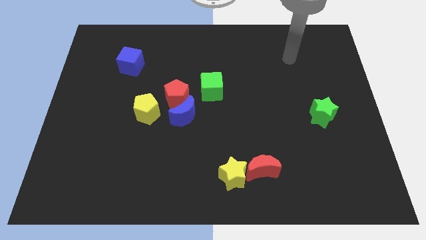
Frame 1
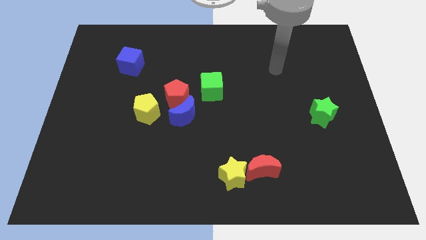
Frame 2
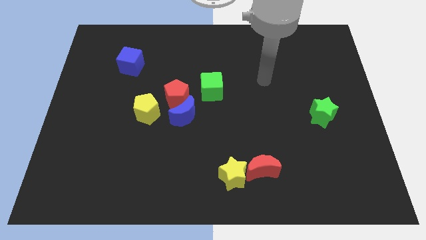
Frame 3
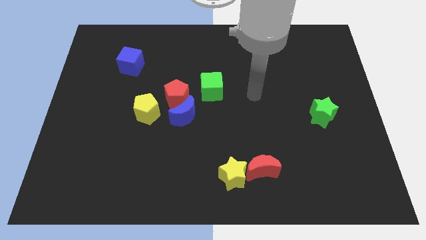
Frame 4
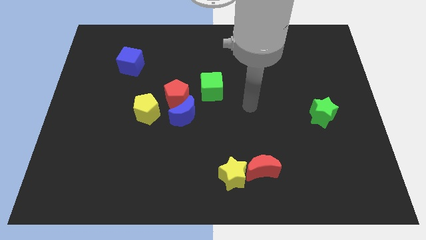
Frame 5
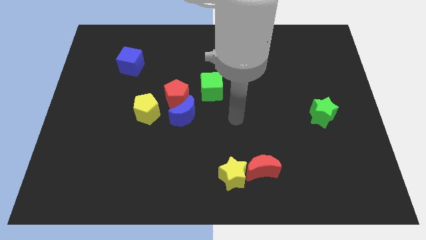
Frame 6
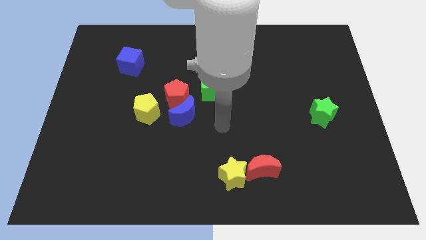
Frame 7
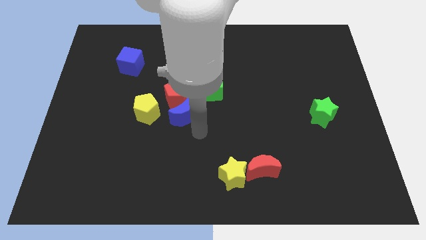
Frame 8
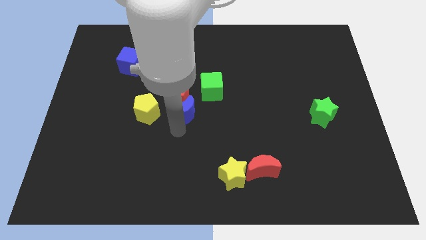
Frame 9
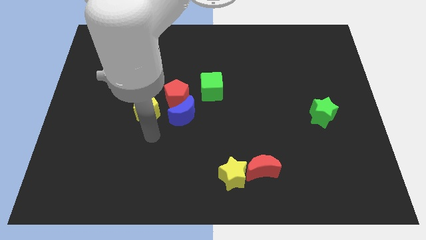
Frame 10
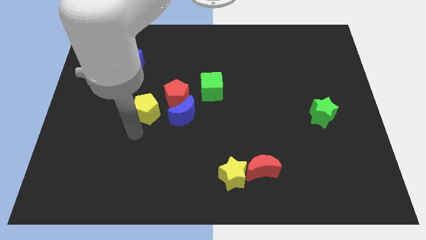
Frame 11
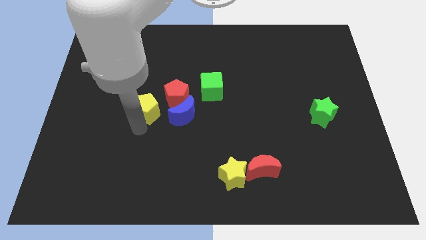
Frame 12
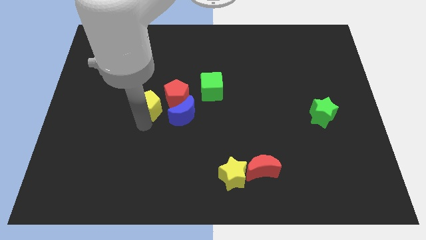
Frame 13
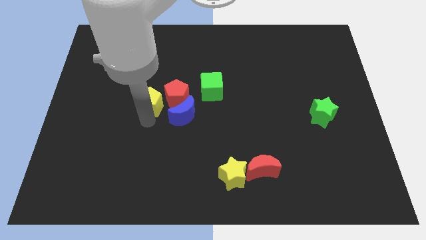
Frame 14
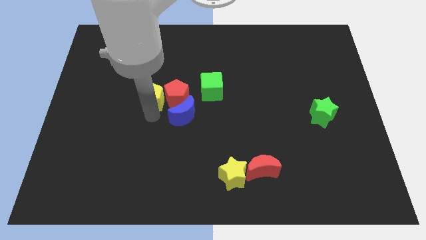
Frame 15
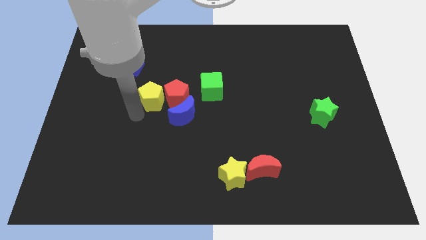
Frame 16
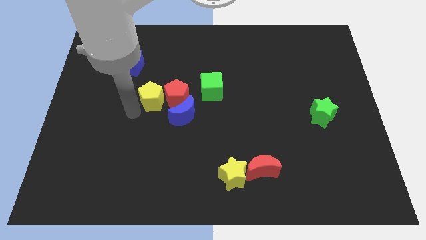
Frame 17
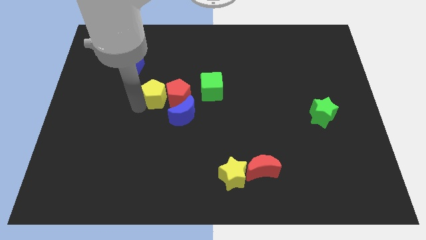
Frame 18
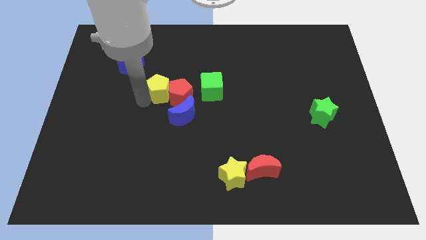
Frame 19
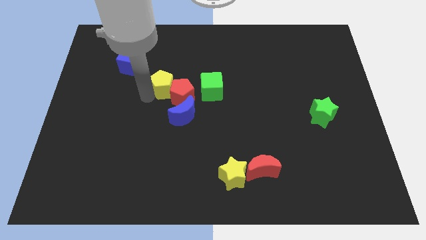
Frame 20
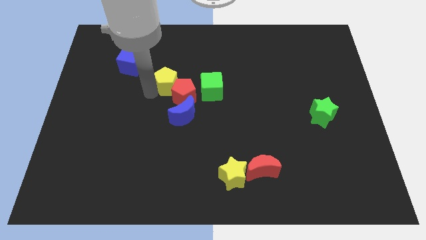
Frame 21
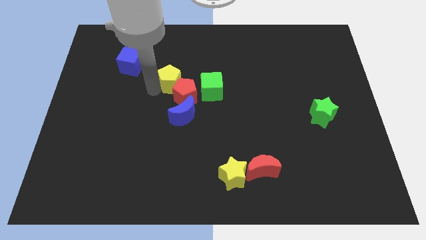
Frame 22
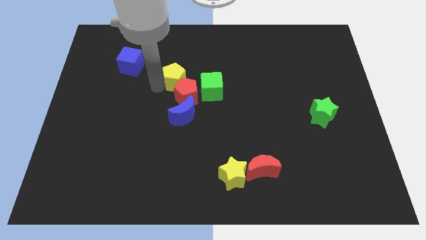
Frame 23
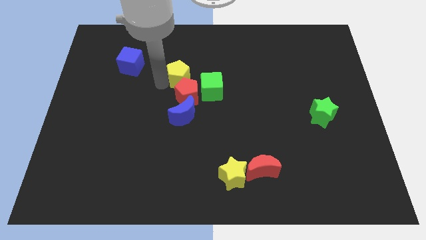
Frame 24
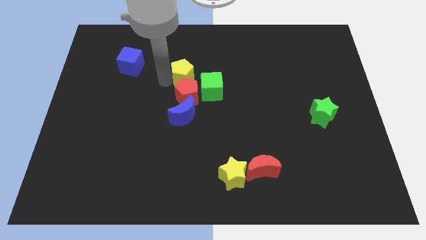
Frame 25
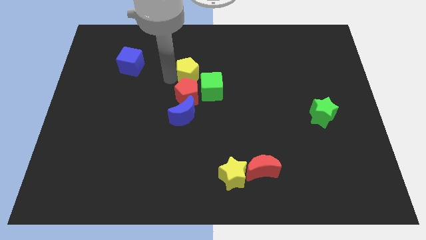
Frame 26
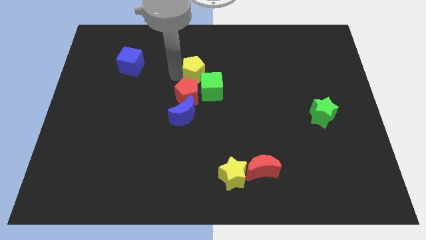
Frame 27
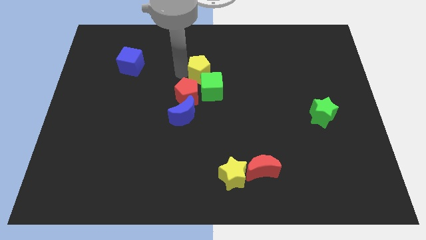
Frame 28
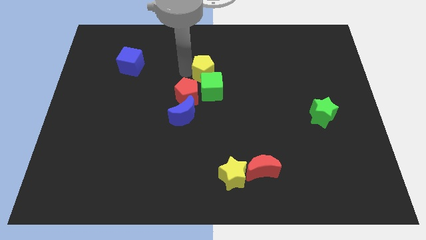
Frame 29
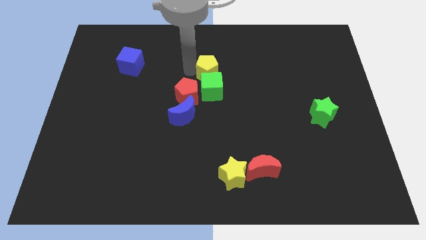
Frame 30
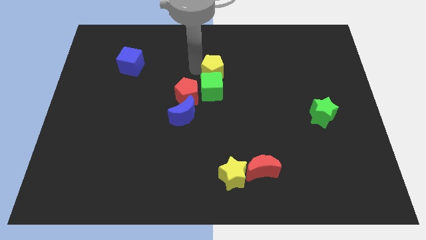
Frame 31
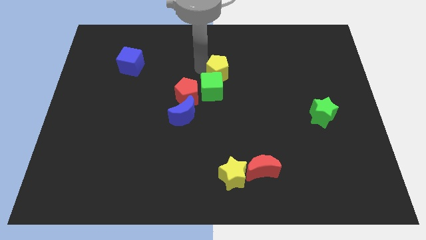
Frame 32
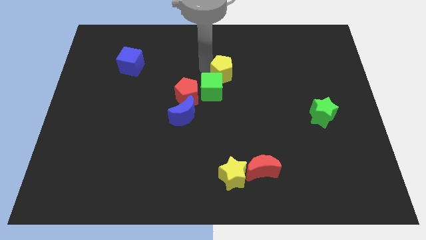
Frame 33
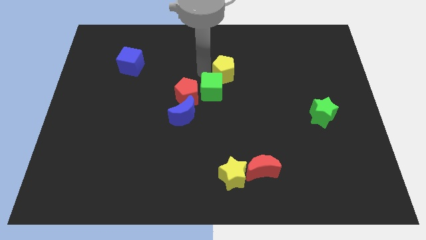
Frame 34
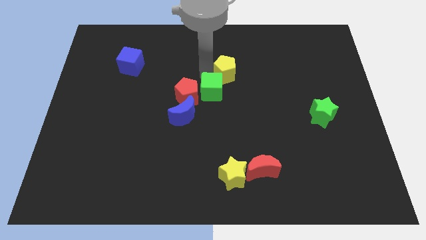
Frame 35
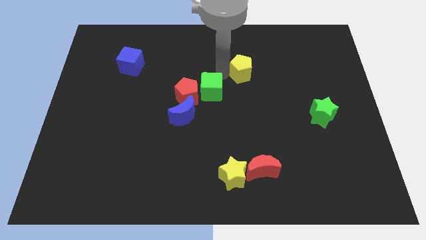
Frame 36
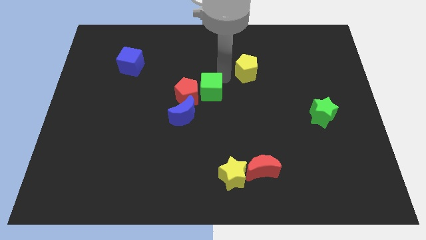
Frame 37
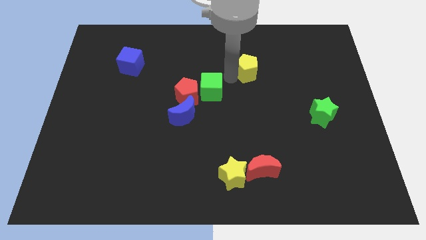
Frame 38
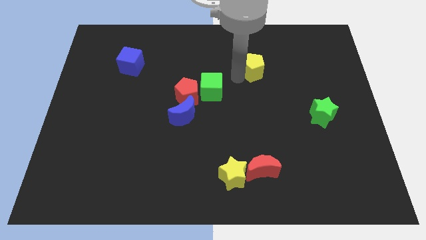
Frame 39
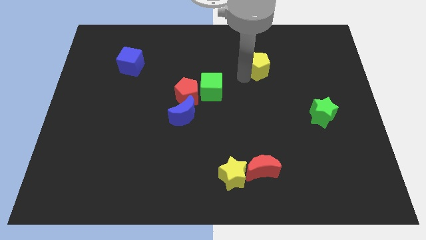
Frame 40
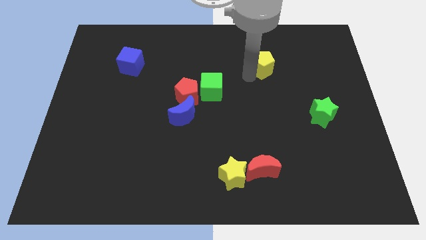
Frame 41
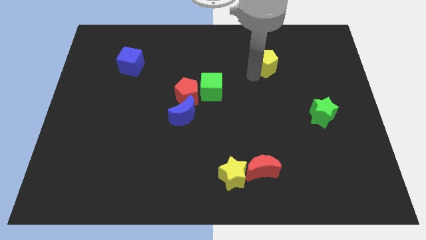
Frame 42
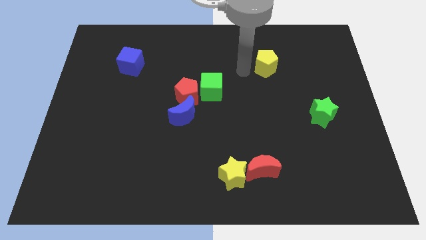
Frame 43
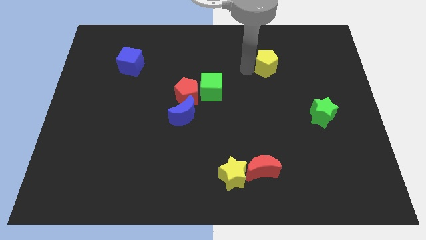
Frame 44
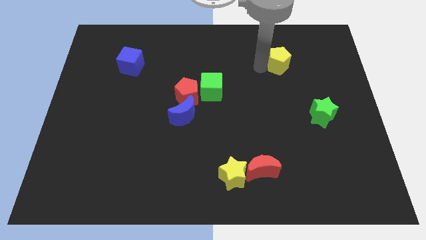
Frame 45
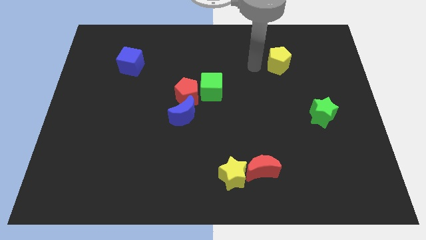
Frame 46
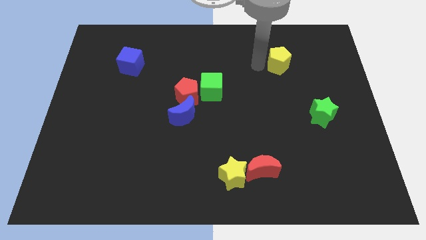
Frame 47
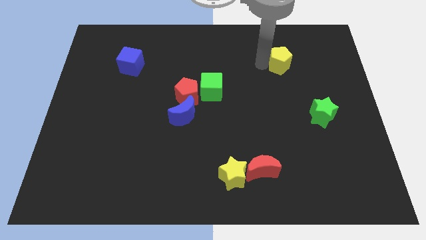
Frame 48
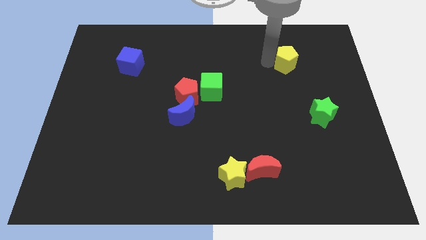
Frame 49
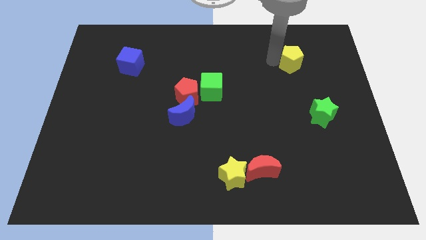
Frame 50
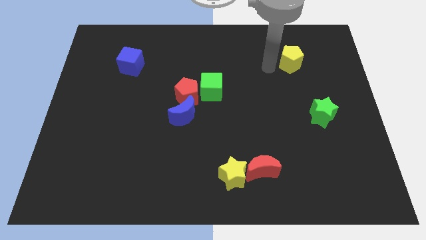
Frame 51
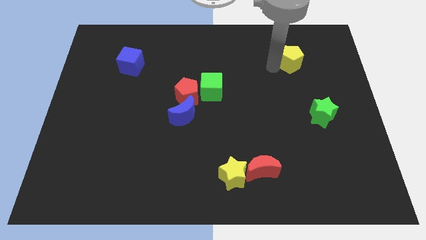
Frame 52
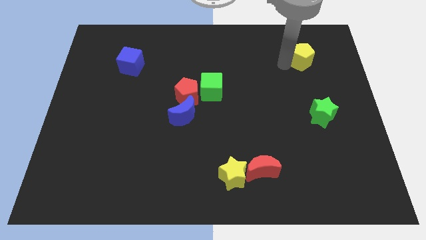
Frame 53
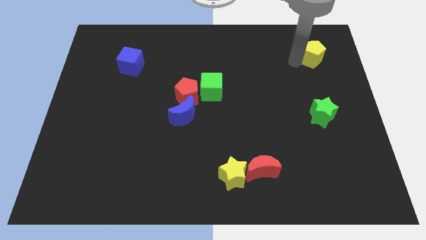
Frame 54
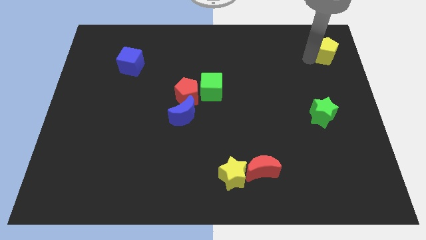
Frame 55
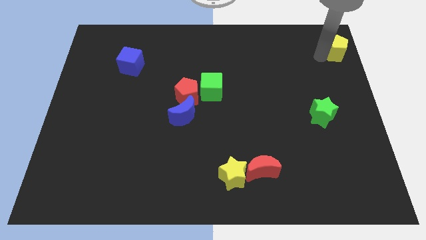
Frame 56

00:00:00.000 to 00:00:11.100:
put the yellow pentagon to the upper right corner

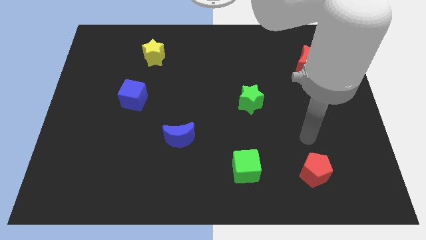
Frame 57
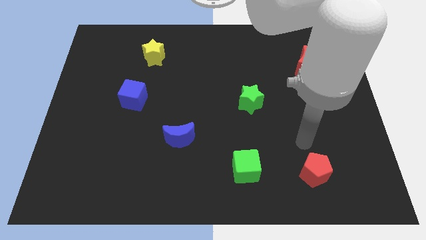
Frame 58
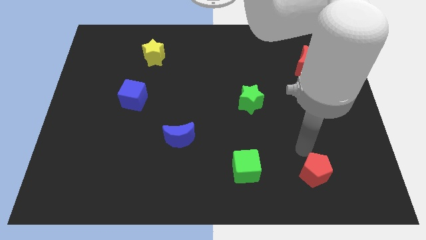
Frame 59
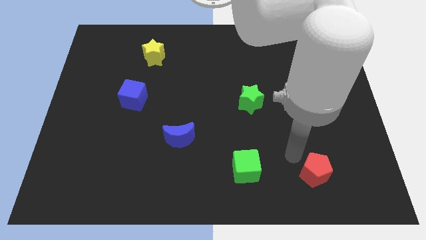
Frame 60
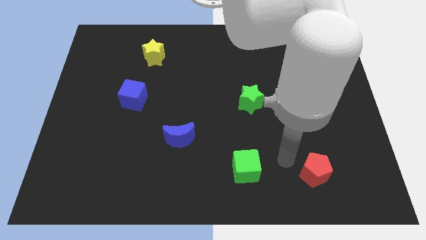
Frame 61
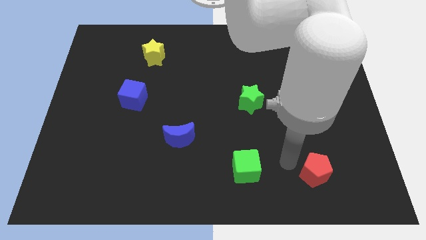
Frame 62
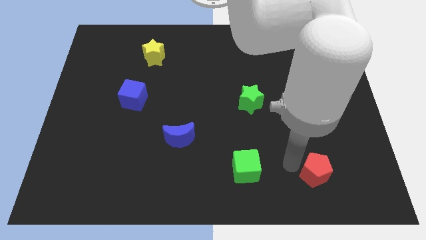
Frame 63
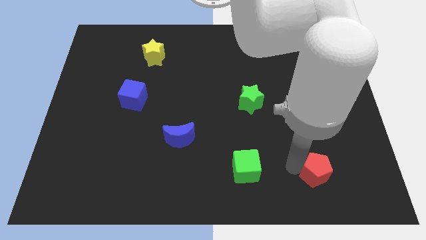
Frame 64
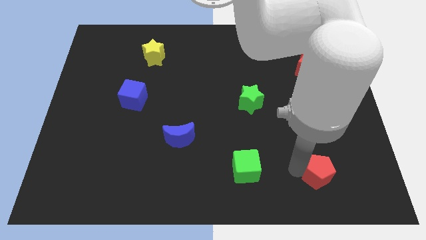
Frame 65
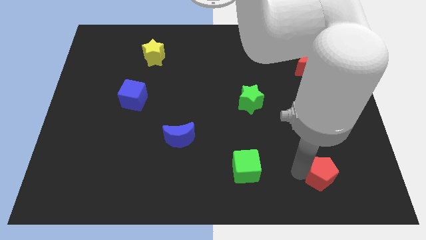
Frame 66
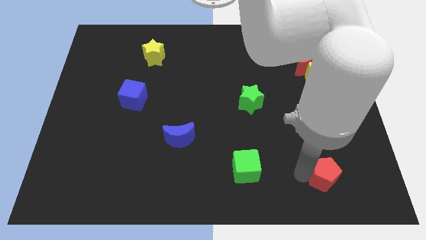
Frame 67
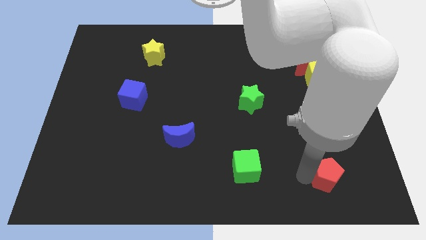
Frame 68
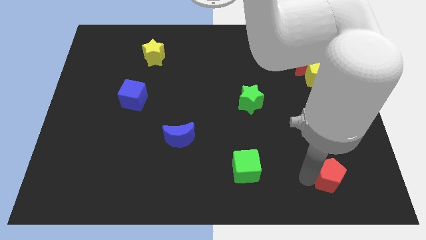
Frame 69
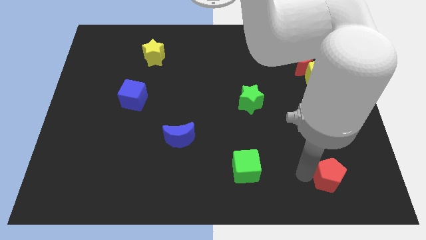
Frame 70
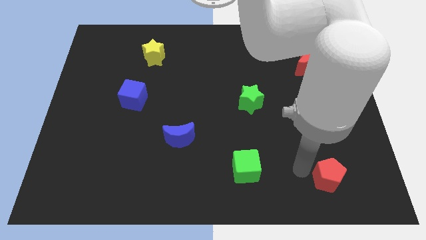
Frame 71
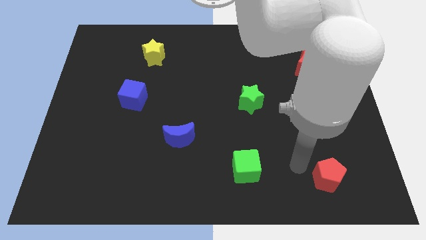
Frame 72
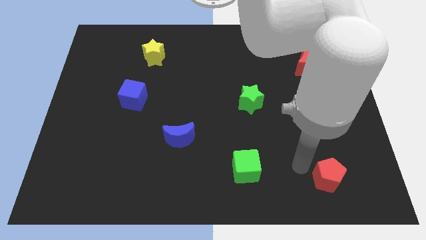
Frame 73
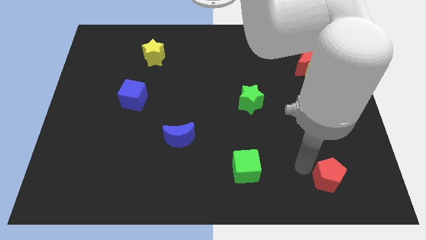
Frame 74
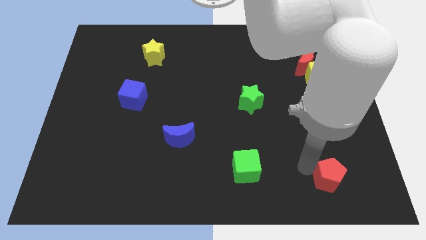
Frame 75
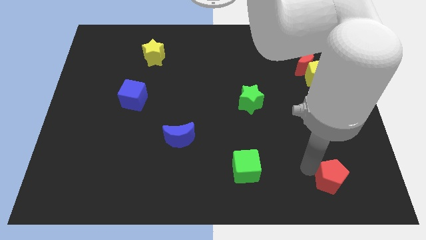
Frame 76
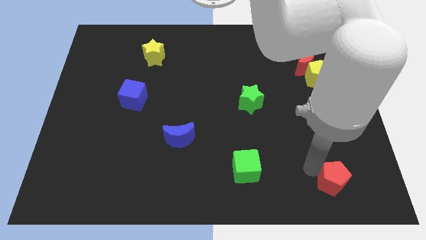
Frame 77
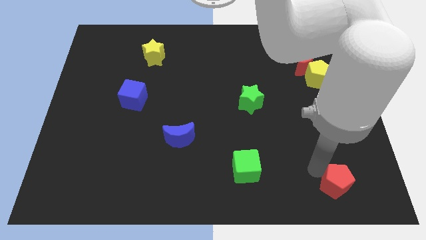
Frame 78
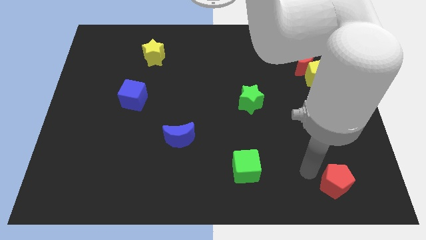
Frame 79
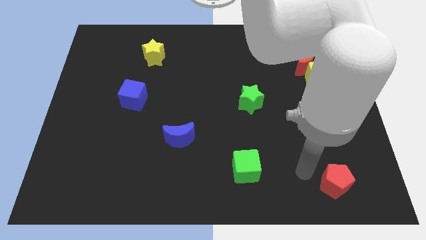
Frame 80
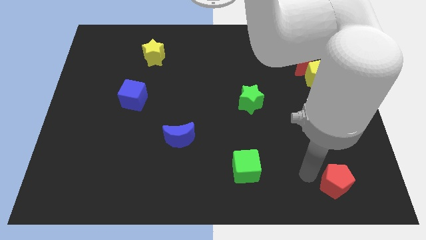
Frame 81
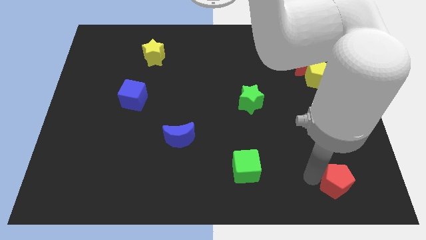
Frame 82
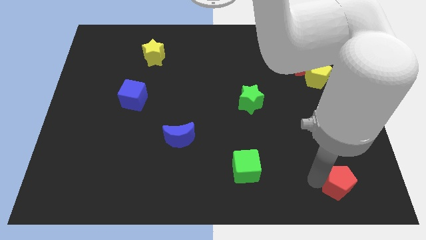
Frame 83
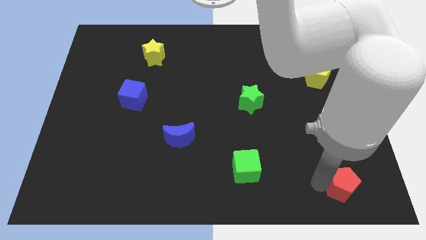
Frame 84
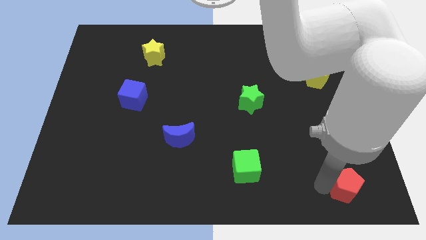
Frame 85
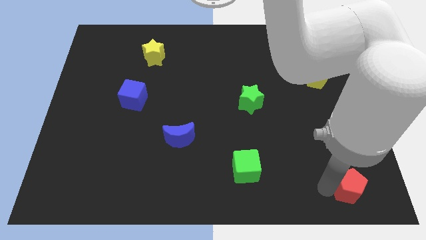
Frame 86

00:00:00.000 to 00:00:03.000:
put the red pentagon to the bottom right corner
